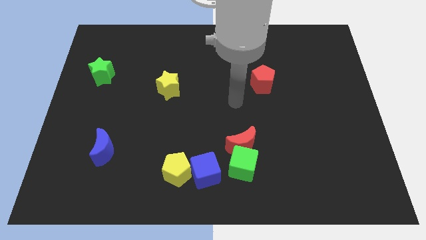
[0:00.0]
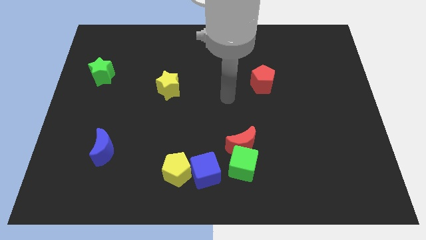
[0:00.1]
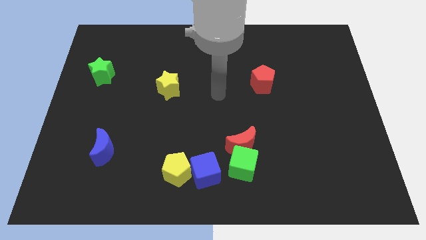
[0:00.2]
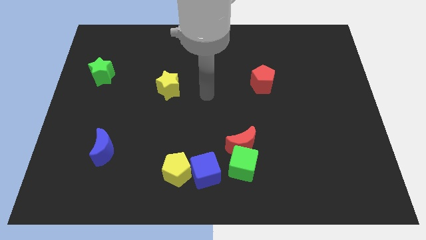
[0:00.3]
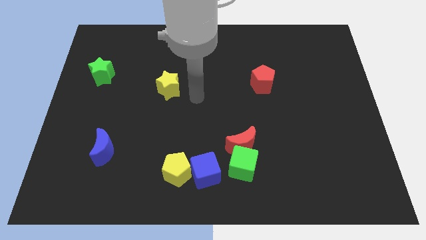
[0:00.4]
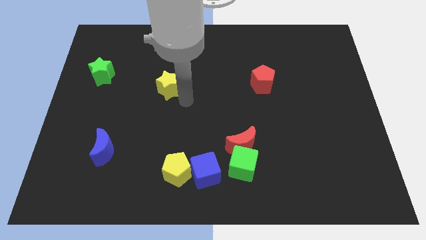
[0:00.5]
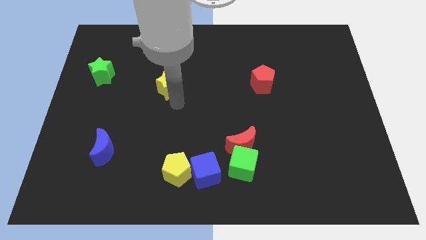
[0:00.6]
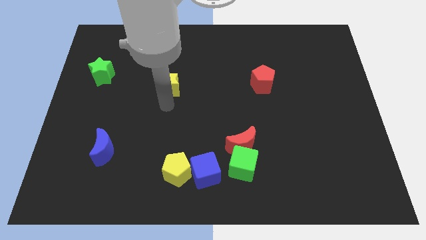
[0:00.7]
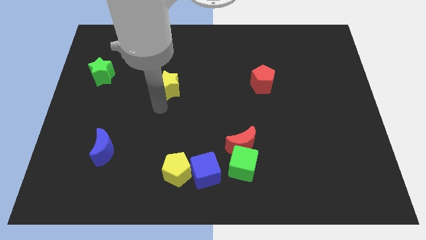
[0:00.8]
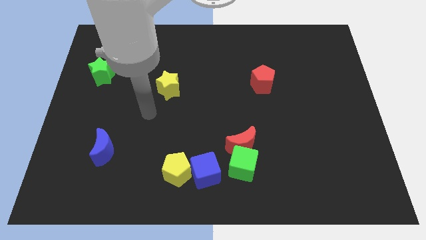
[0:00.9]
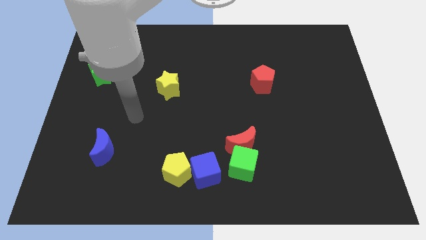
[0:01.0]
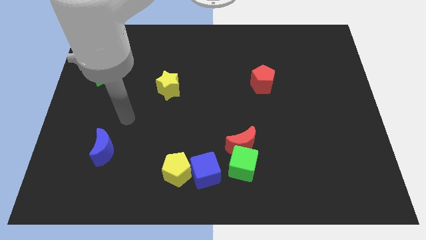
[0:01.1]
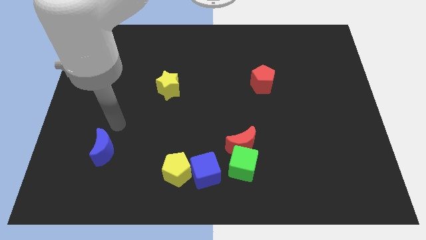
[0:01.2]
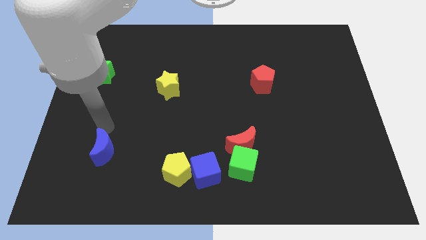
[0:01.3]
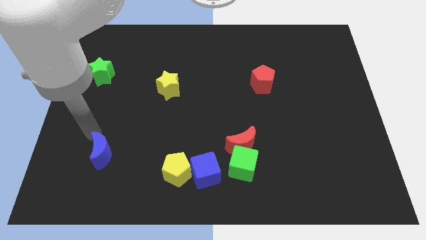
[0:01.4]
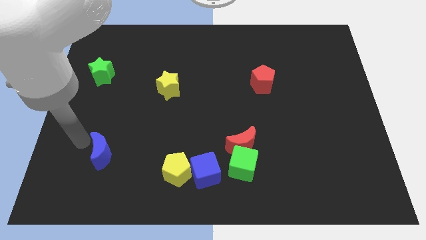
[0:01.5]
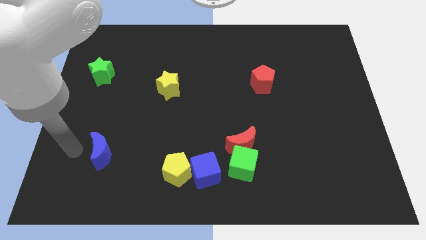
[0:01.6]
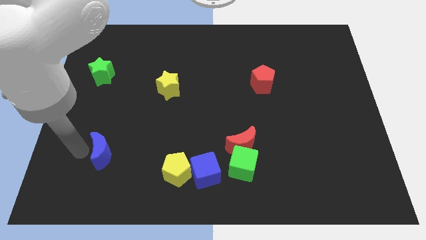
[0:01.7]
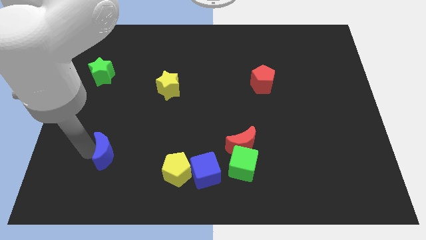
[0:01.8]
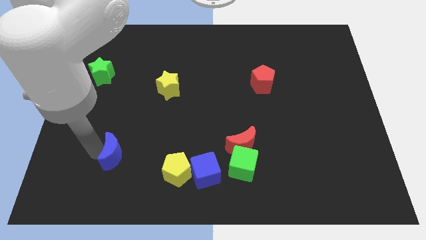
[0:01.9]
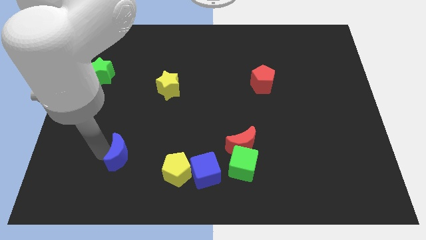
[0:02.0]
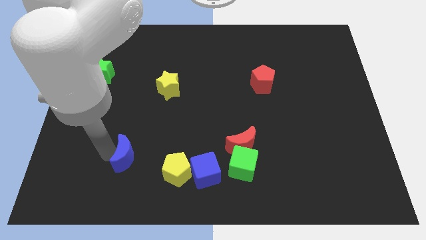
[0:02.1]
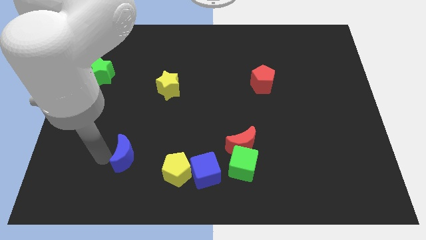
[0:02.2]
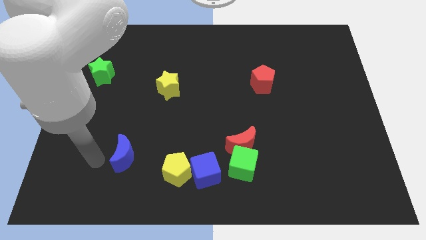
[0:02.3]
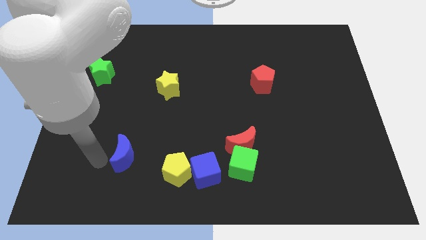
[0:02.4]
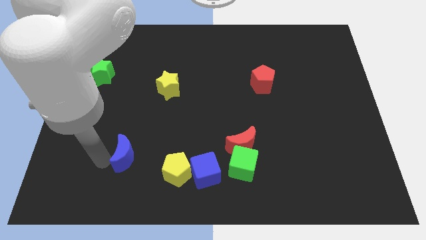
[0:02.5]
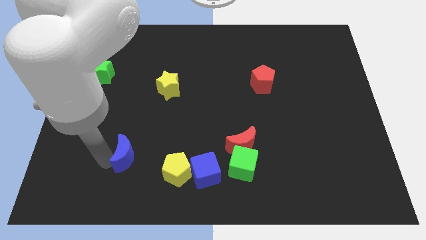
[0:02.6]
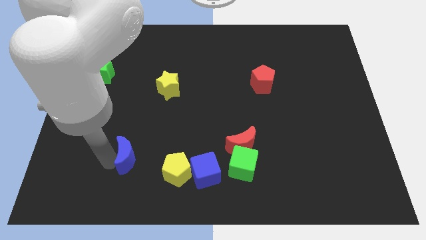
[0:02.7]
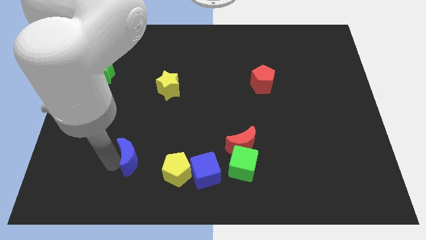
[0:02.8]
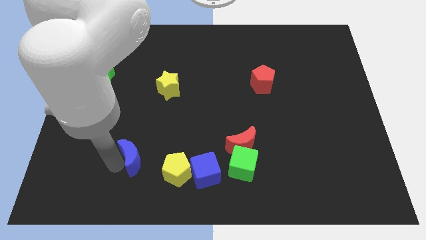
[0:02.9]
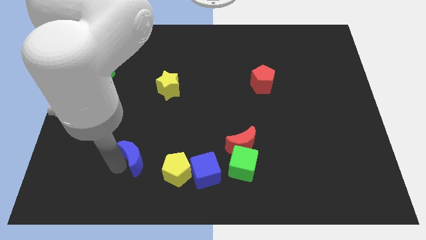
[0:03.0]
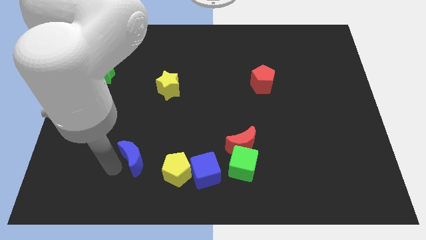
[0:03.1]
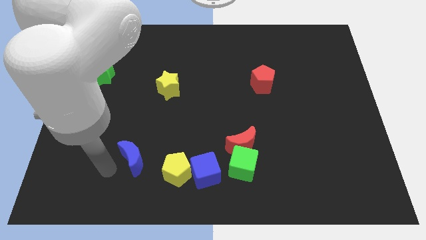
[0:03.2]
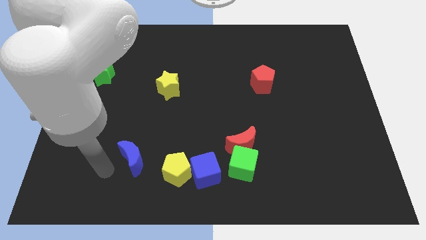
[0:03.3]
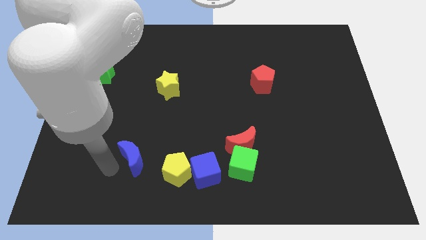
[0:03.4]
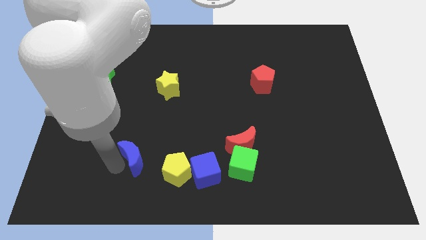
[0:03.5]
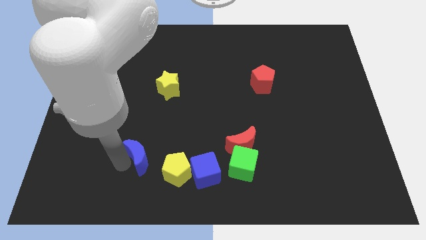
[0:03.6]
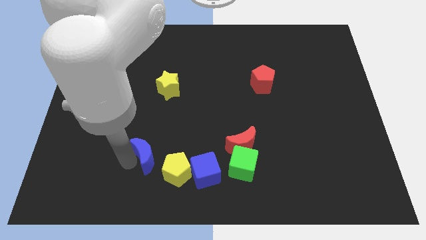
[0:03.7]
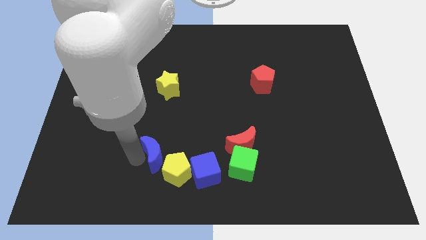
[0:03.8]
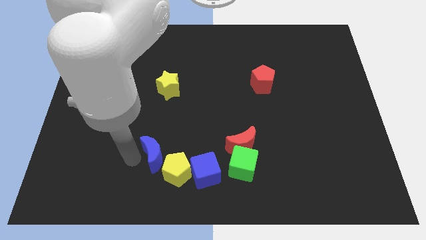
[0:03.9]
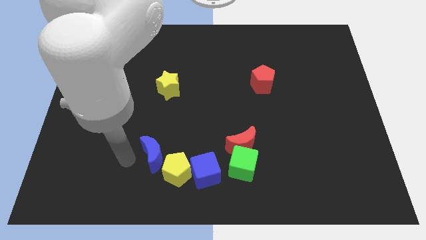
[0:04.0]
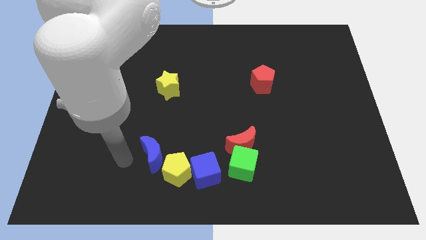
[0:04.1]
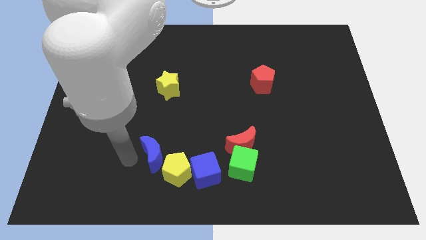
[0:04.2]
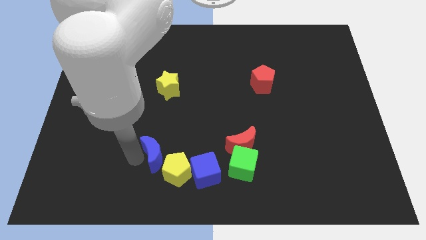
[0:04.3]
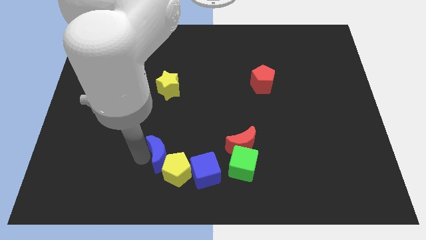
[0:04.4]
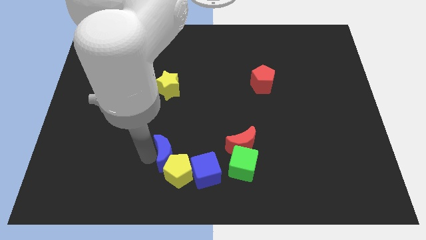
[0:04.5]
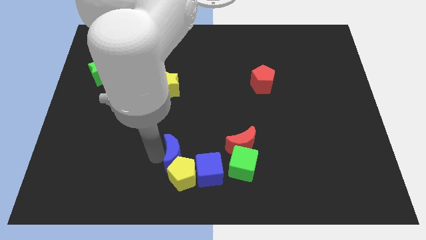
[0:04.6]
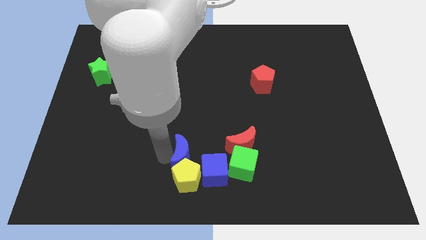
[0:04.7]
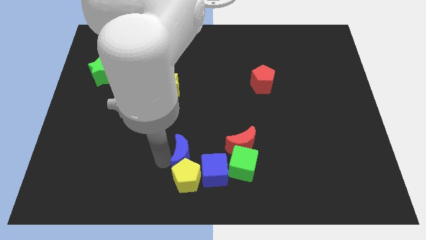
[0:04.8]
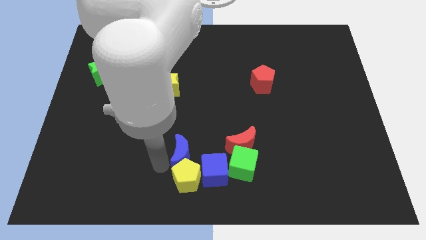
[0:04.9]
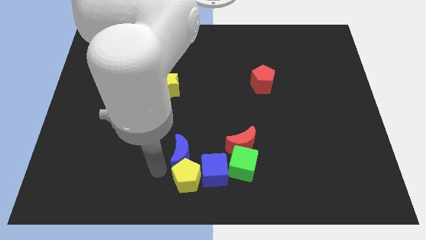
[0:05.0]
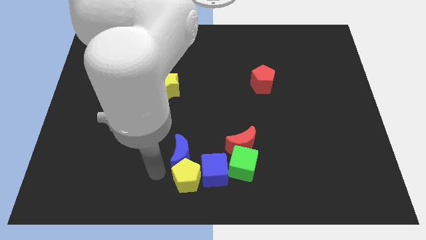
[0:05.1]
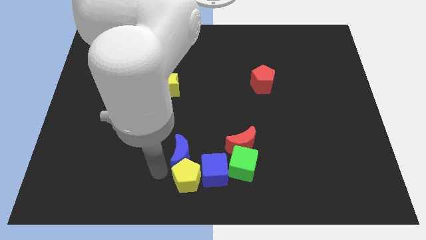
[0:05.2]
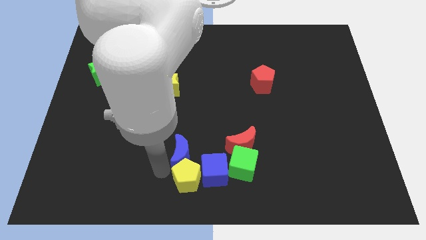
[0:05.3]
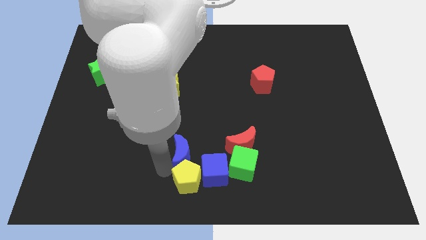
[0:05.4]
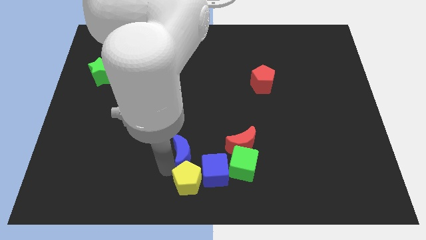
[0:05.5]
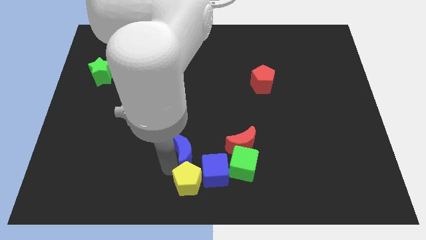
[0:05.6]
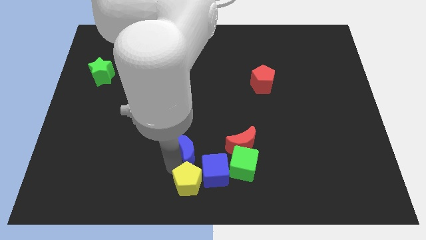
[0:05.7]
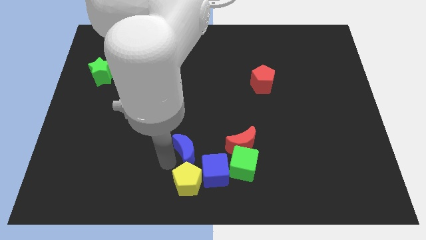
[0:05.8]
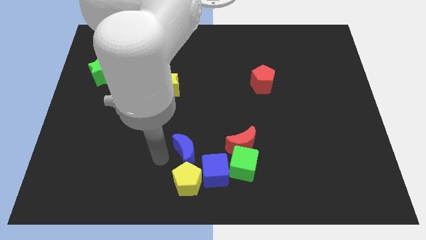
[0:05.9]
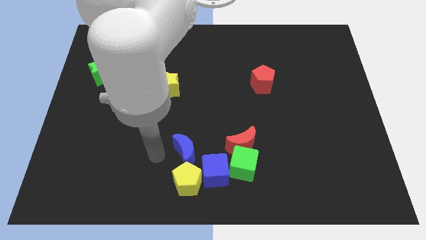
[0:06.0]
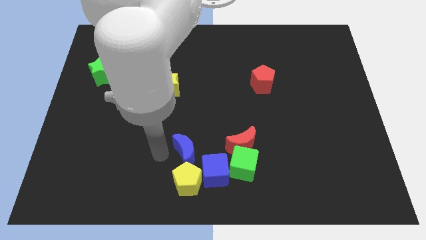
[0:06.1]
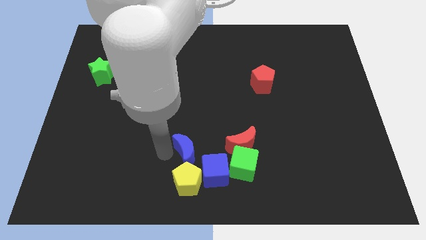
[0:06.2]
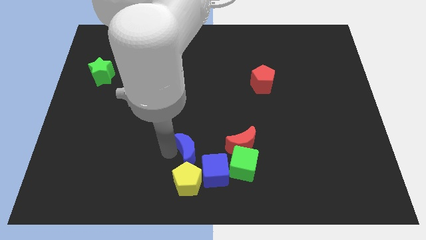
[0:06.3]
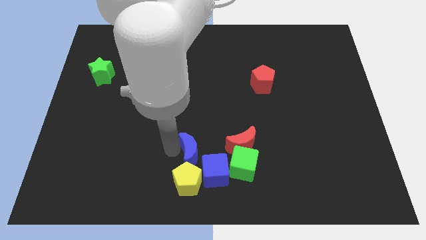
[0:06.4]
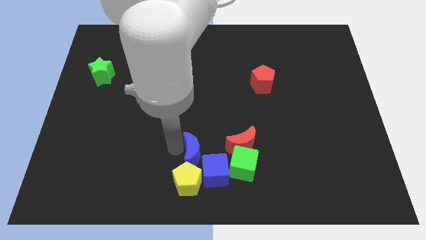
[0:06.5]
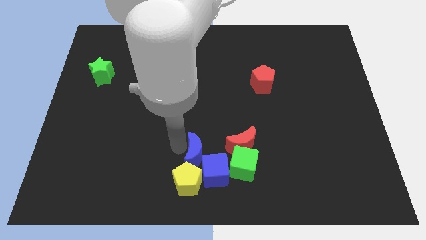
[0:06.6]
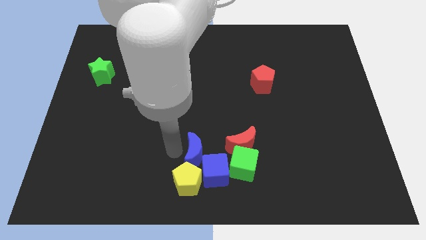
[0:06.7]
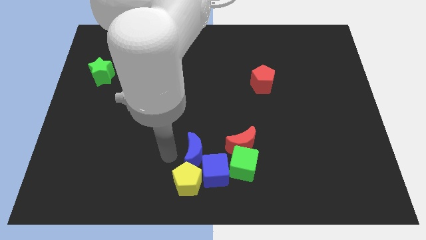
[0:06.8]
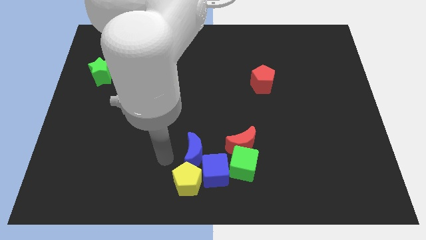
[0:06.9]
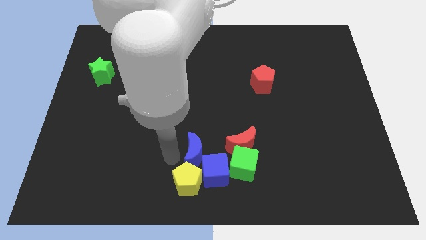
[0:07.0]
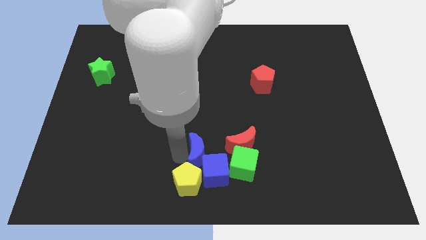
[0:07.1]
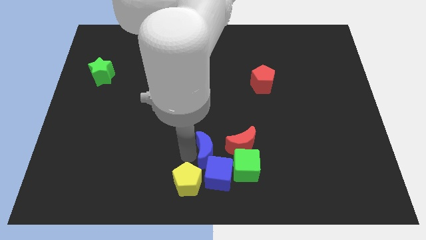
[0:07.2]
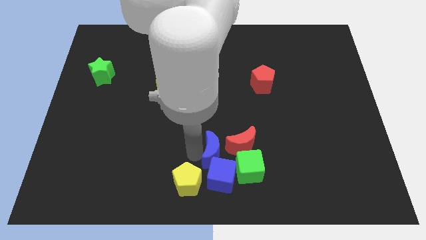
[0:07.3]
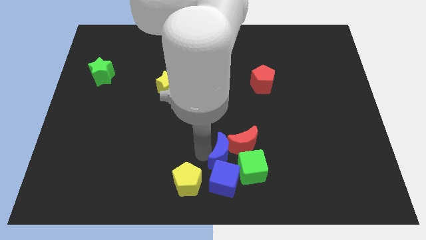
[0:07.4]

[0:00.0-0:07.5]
put the blue moon next to the red moon
